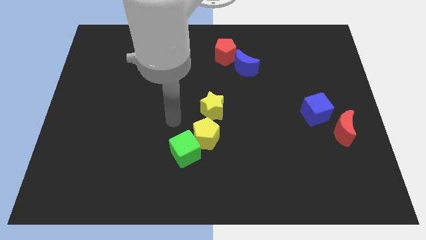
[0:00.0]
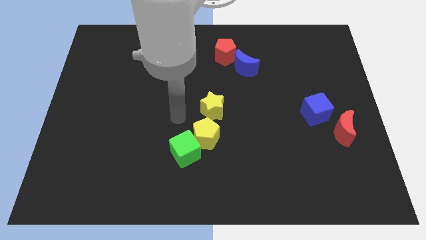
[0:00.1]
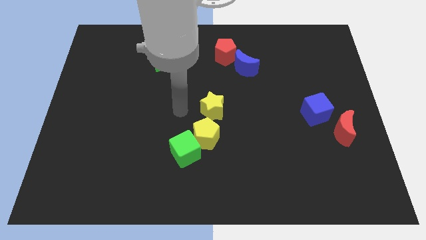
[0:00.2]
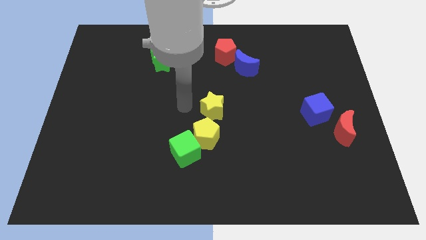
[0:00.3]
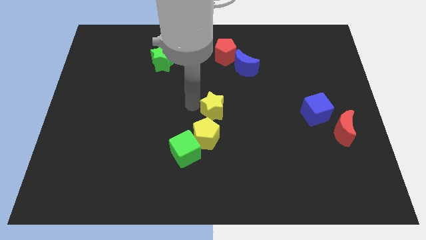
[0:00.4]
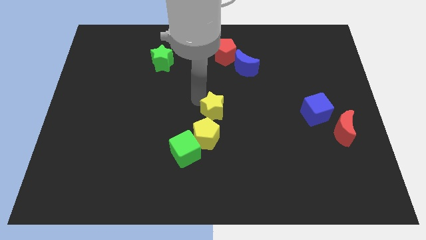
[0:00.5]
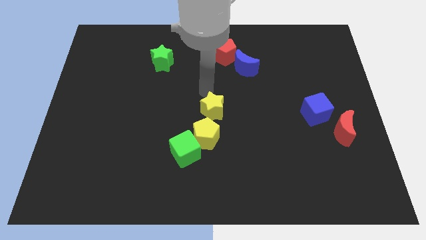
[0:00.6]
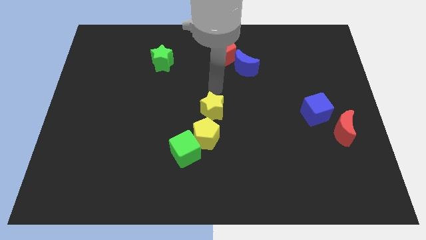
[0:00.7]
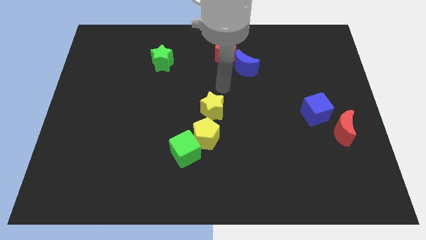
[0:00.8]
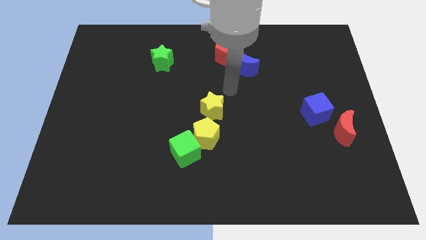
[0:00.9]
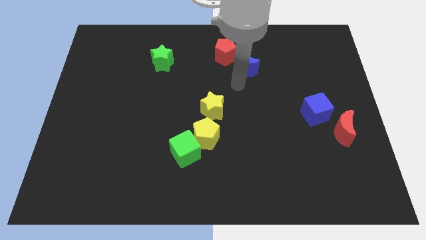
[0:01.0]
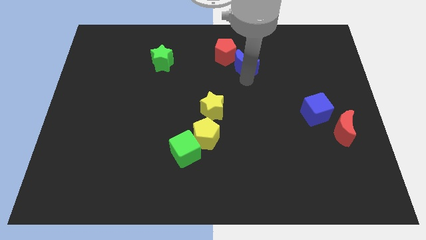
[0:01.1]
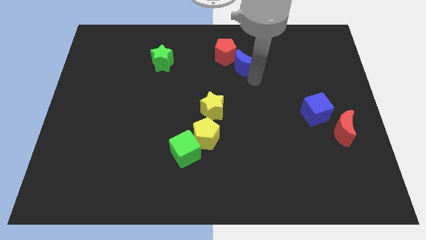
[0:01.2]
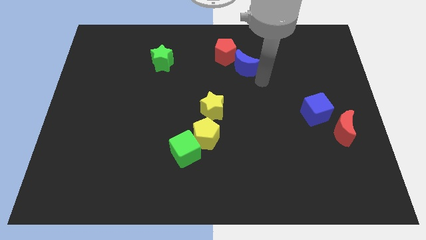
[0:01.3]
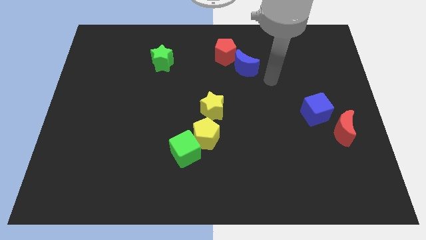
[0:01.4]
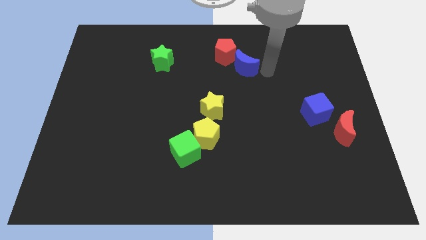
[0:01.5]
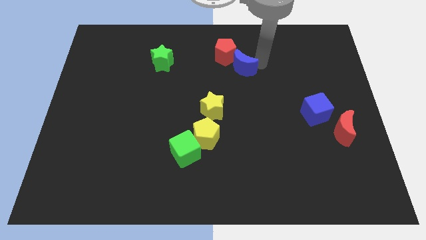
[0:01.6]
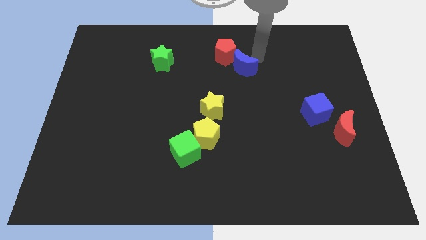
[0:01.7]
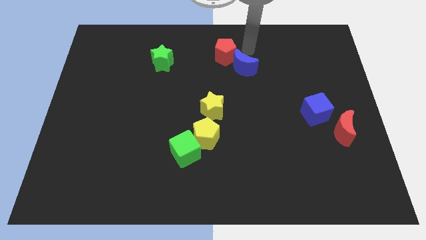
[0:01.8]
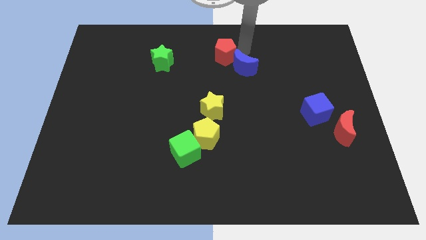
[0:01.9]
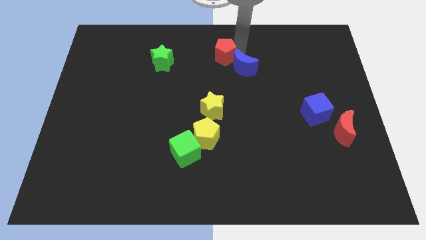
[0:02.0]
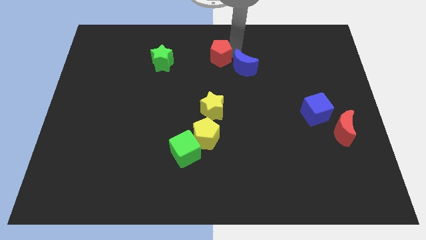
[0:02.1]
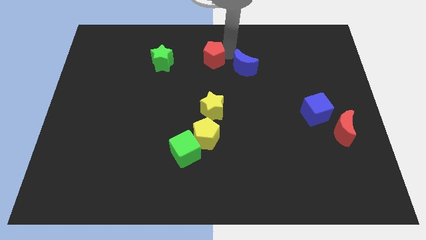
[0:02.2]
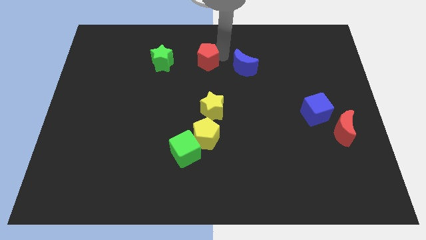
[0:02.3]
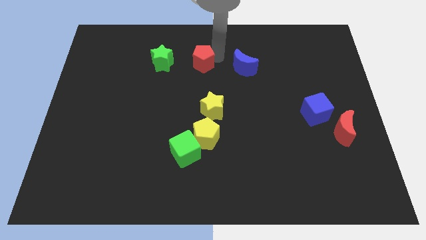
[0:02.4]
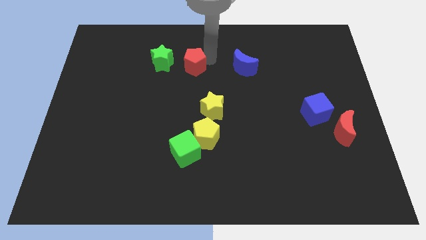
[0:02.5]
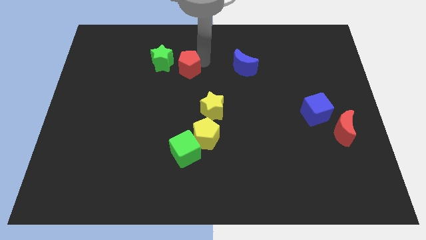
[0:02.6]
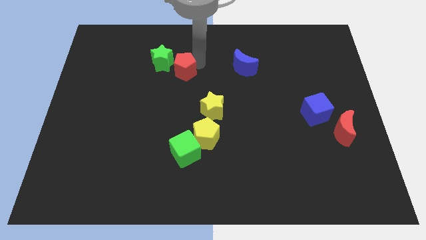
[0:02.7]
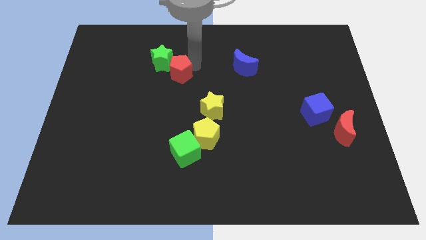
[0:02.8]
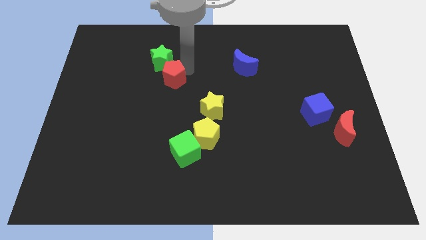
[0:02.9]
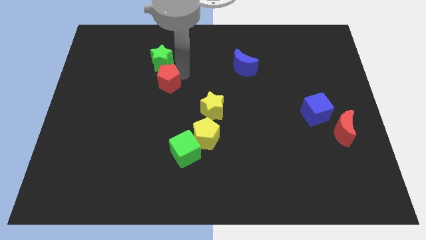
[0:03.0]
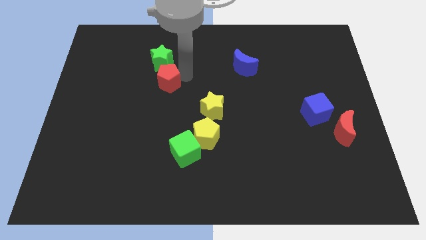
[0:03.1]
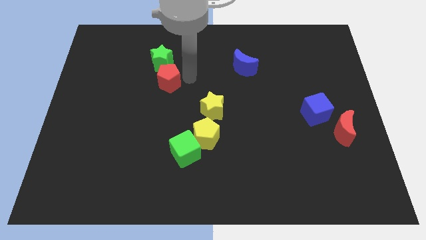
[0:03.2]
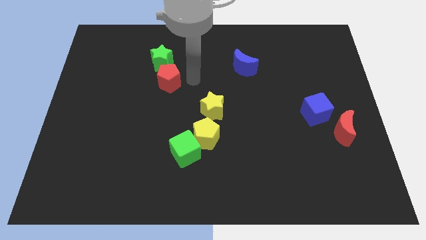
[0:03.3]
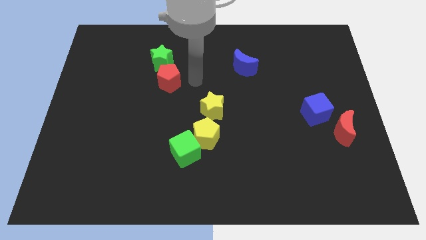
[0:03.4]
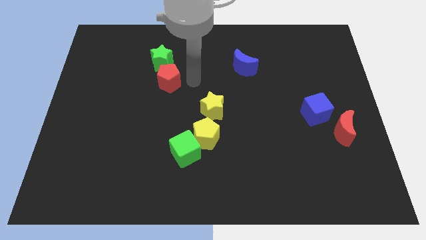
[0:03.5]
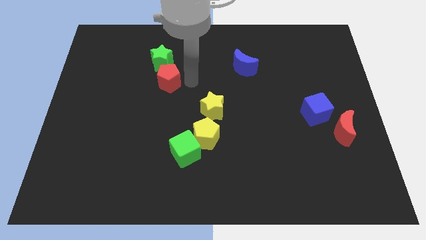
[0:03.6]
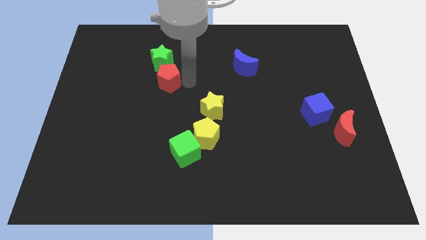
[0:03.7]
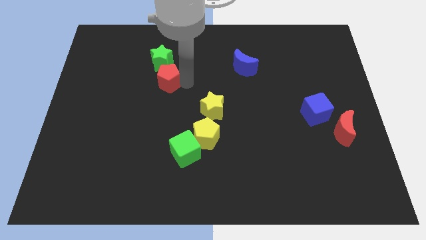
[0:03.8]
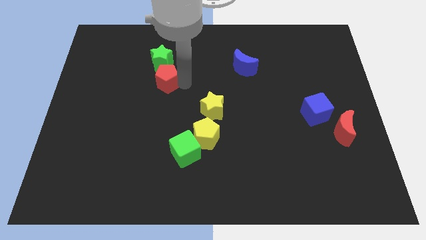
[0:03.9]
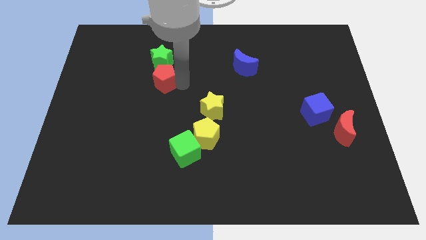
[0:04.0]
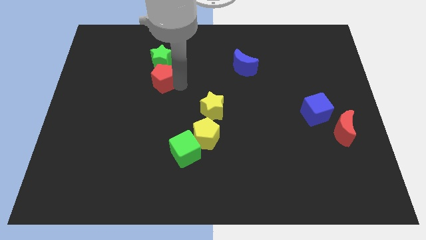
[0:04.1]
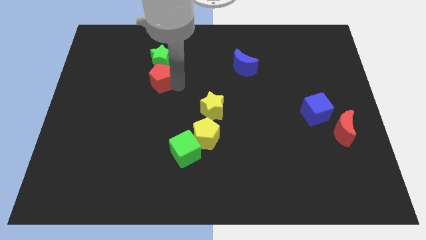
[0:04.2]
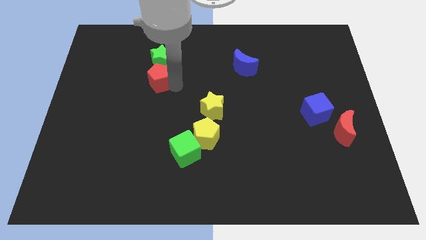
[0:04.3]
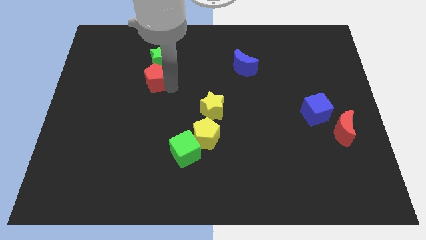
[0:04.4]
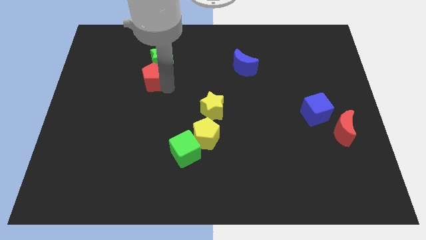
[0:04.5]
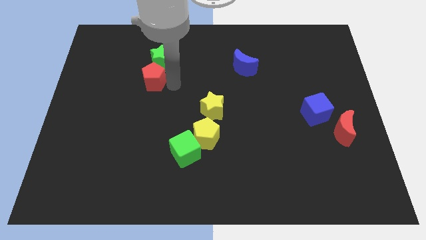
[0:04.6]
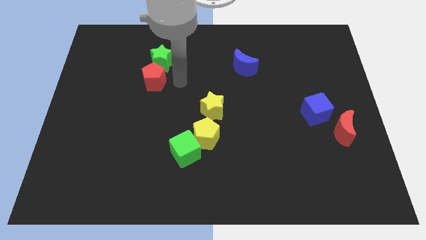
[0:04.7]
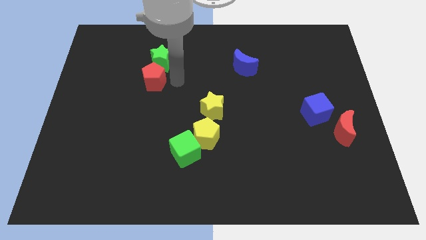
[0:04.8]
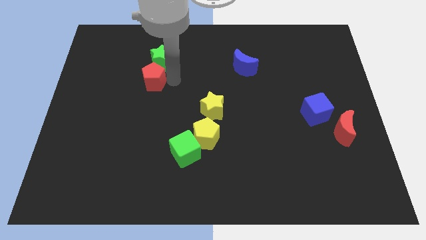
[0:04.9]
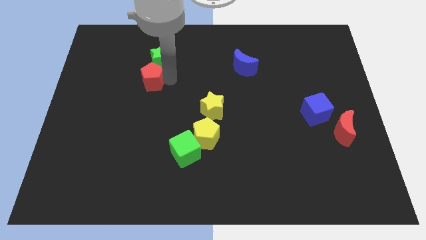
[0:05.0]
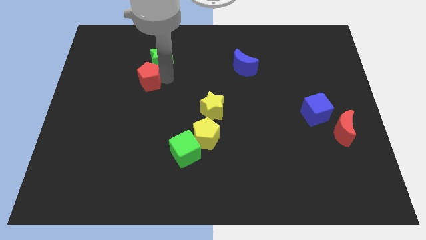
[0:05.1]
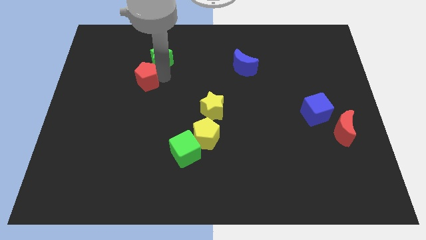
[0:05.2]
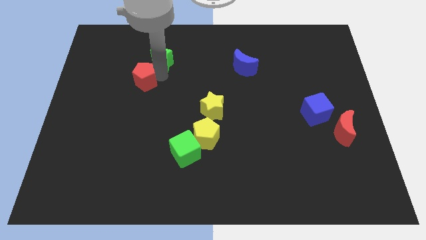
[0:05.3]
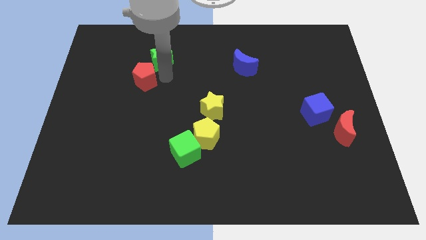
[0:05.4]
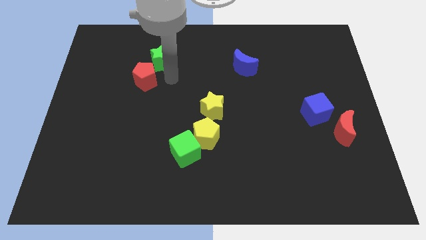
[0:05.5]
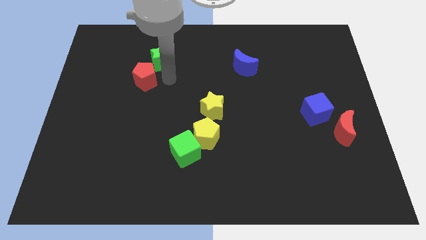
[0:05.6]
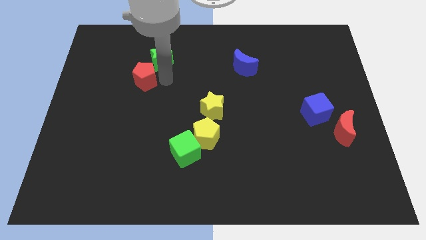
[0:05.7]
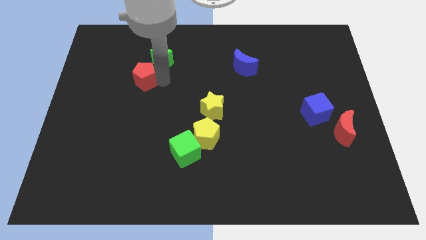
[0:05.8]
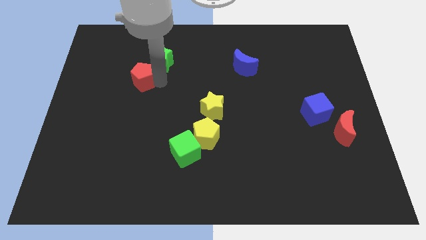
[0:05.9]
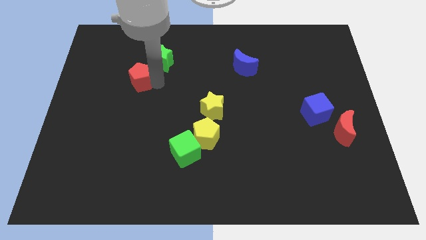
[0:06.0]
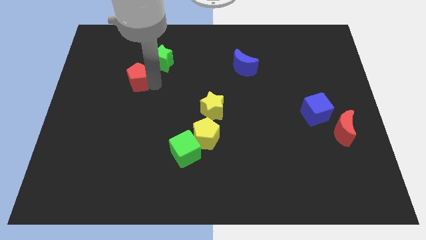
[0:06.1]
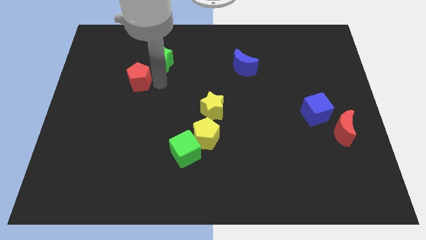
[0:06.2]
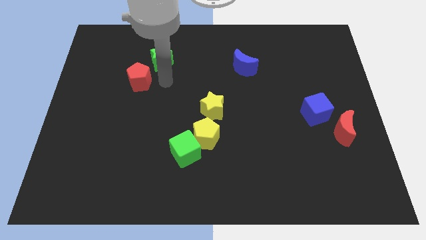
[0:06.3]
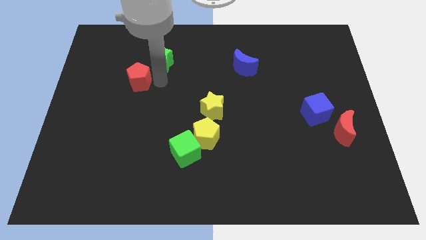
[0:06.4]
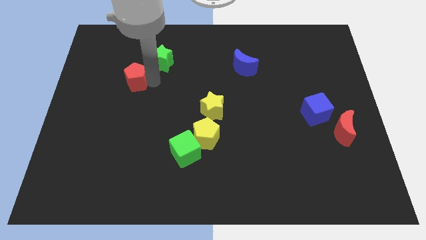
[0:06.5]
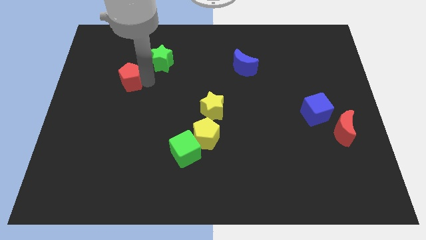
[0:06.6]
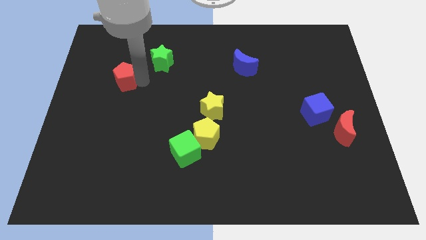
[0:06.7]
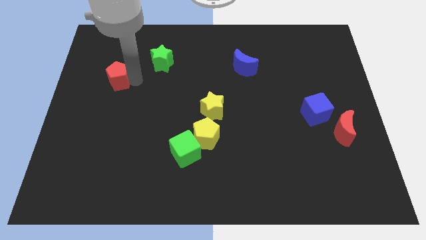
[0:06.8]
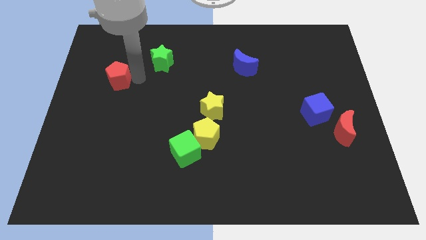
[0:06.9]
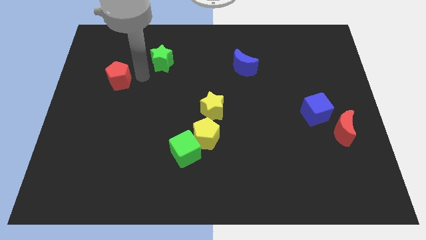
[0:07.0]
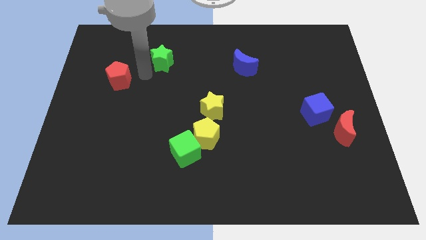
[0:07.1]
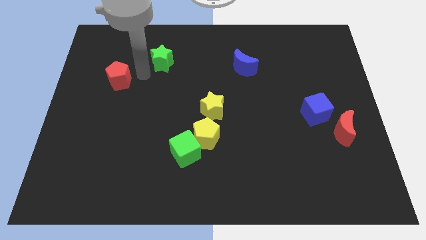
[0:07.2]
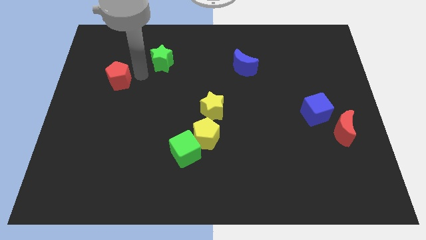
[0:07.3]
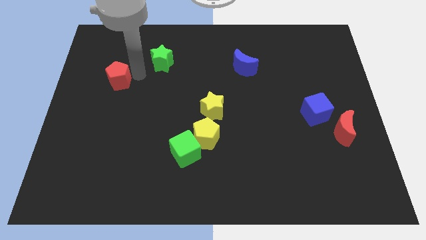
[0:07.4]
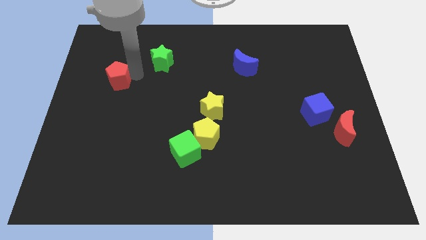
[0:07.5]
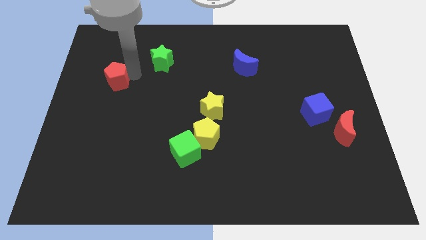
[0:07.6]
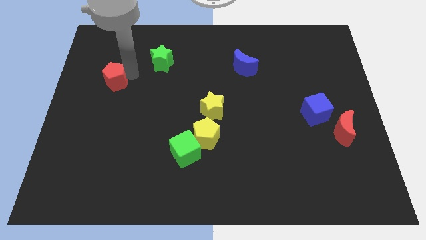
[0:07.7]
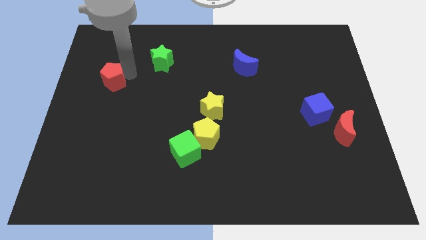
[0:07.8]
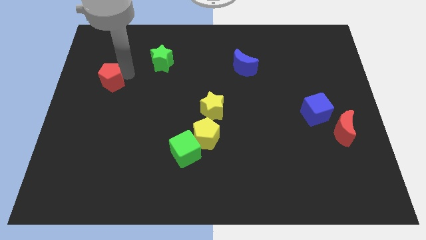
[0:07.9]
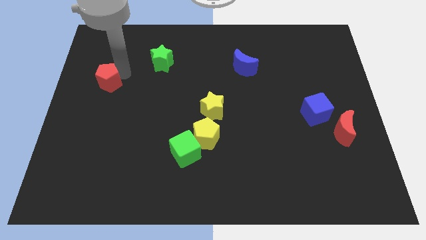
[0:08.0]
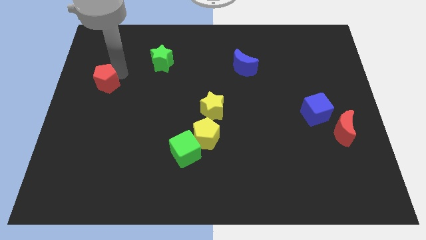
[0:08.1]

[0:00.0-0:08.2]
move the red pentagon to the left side
